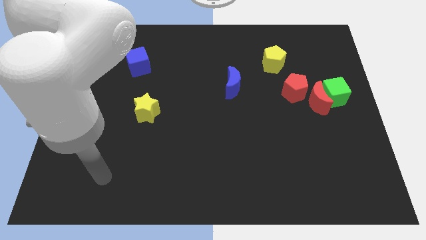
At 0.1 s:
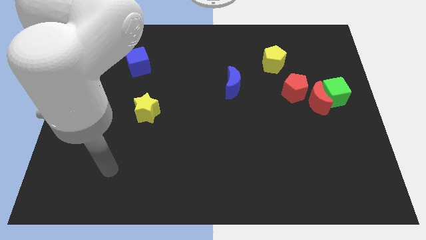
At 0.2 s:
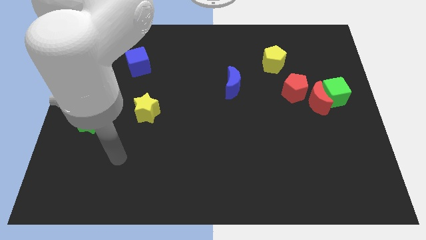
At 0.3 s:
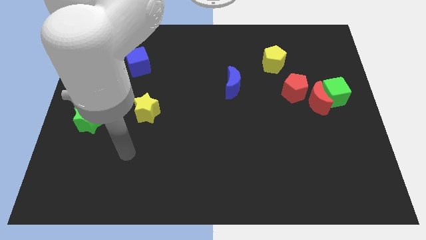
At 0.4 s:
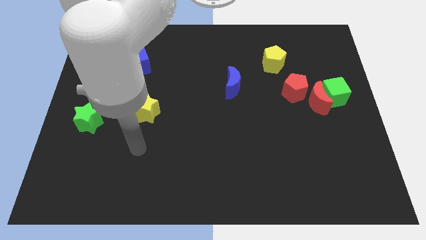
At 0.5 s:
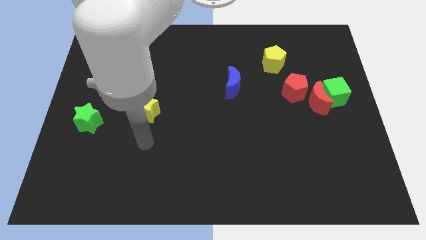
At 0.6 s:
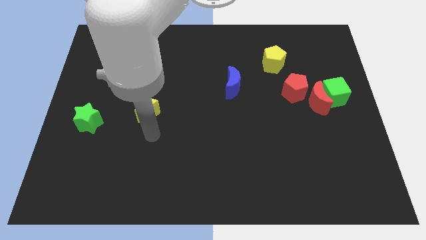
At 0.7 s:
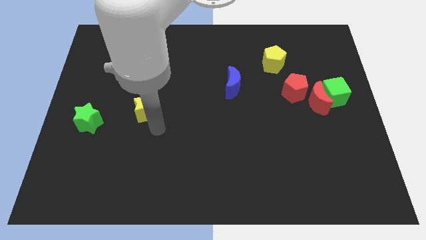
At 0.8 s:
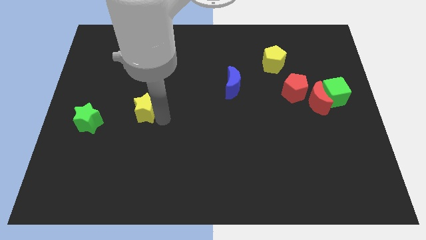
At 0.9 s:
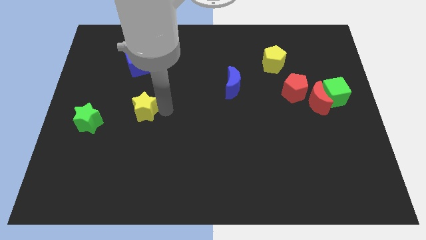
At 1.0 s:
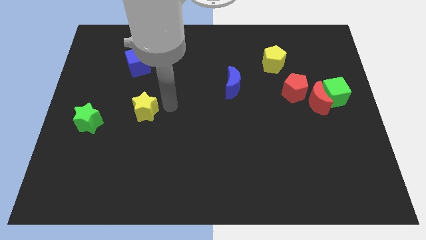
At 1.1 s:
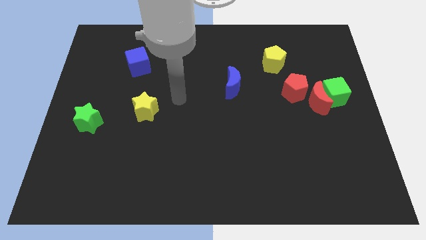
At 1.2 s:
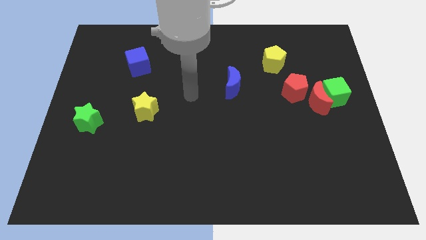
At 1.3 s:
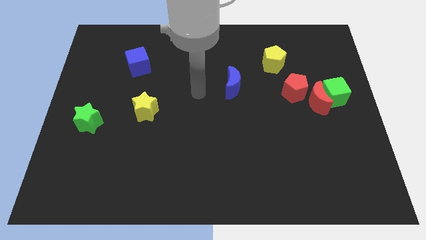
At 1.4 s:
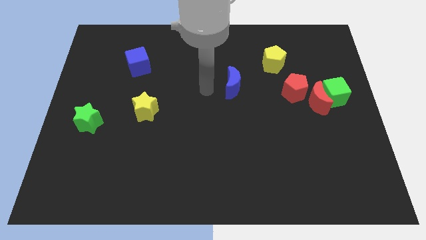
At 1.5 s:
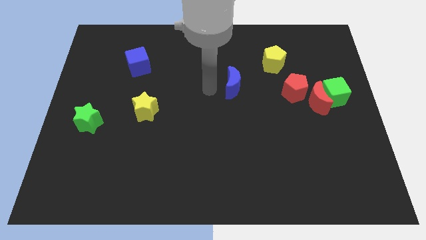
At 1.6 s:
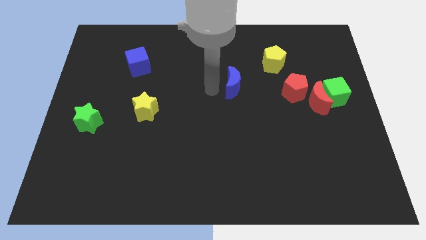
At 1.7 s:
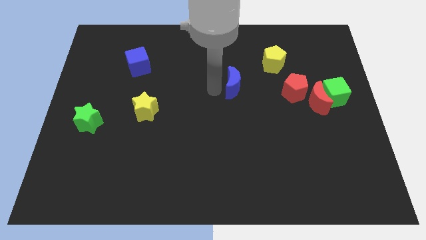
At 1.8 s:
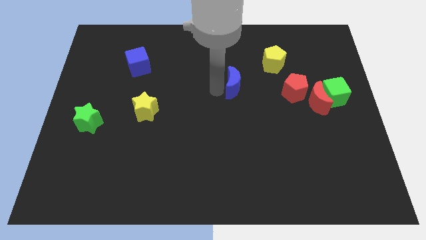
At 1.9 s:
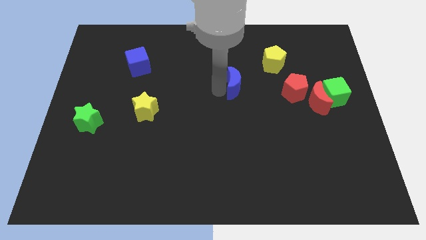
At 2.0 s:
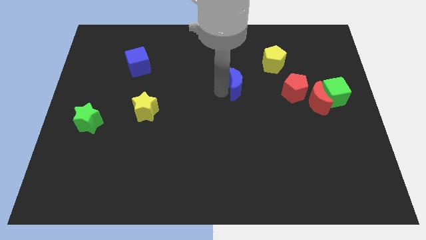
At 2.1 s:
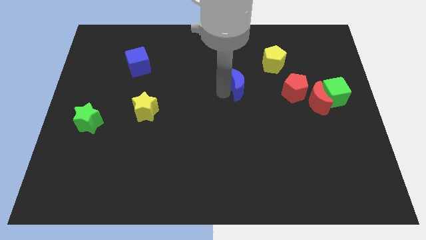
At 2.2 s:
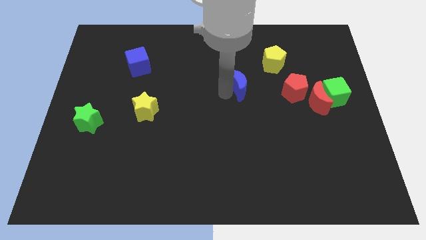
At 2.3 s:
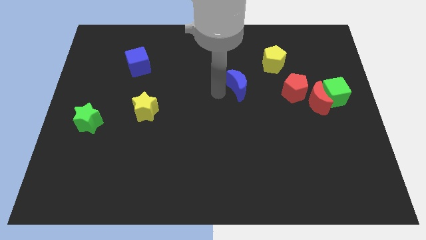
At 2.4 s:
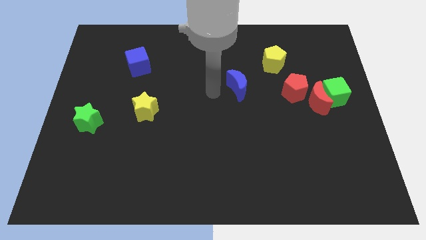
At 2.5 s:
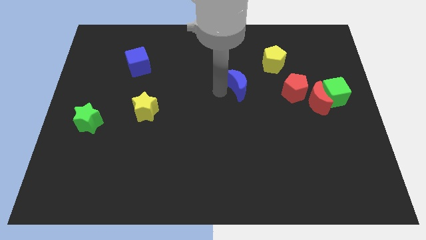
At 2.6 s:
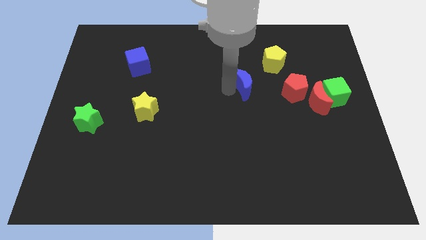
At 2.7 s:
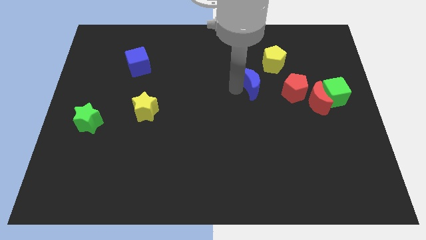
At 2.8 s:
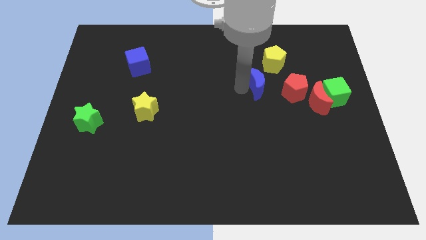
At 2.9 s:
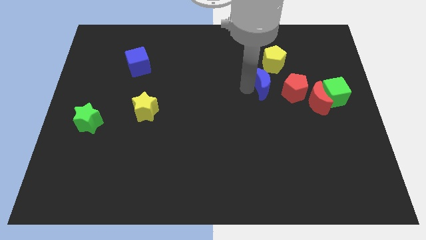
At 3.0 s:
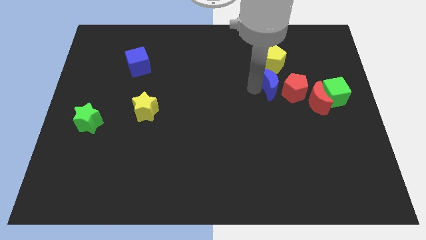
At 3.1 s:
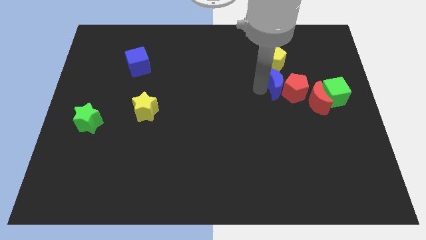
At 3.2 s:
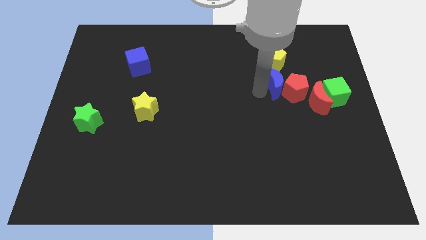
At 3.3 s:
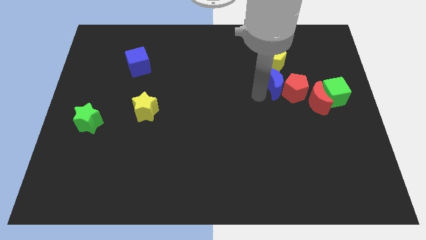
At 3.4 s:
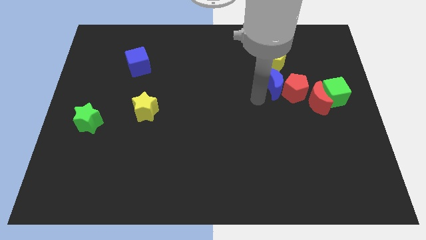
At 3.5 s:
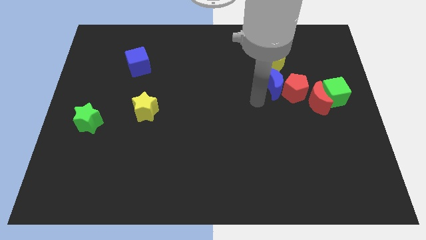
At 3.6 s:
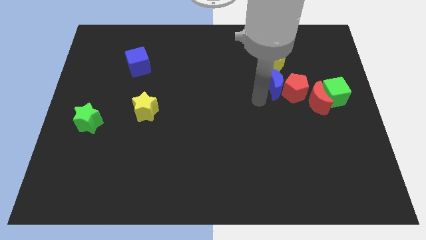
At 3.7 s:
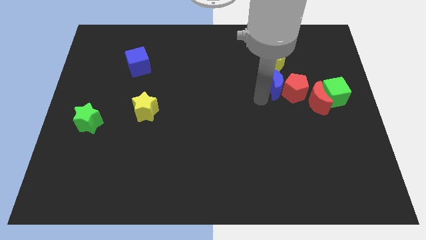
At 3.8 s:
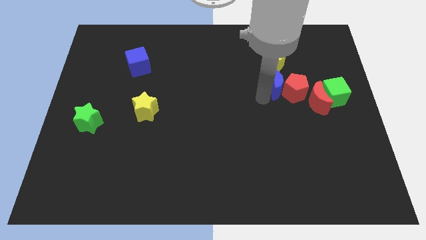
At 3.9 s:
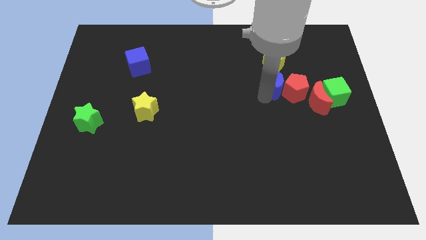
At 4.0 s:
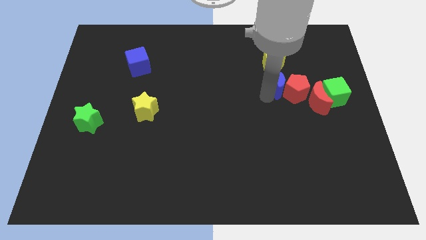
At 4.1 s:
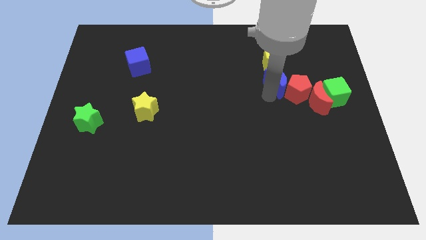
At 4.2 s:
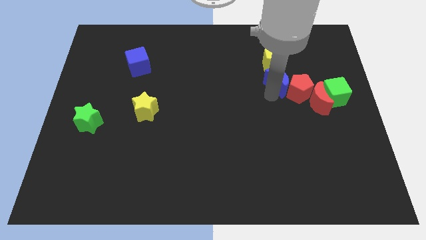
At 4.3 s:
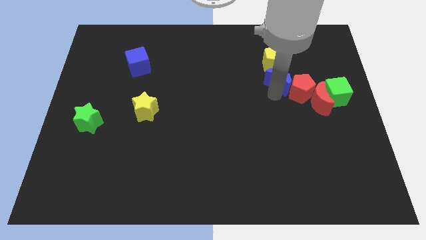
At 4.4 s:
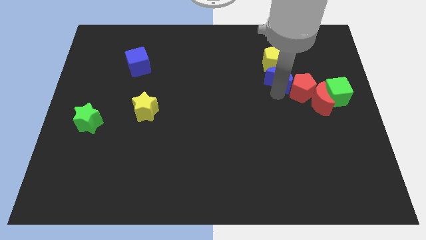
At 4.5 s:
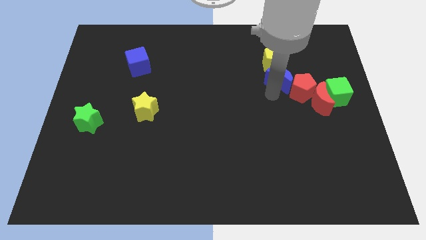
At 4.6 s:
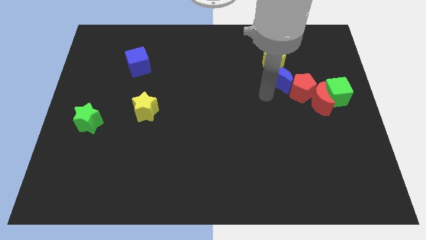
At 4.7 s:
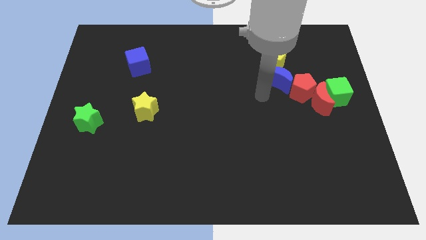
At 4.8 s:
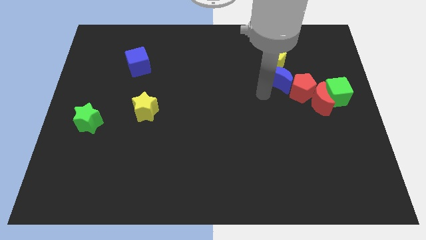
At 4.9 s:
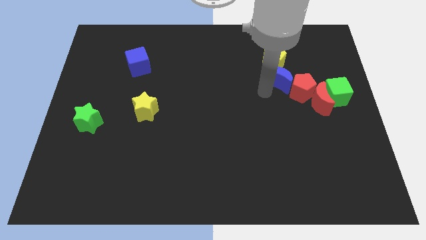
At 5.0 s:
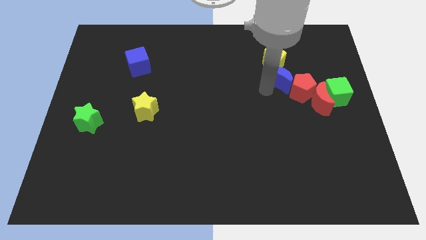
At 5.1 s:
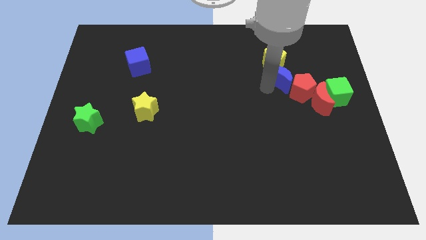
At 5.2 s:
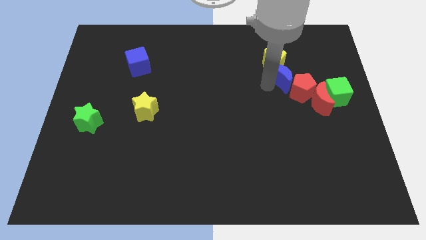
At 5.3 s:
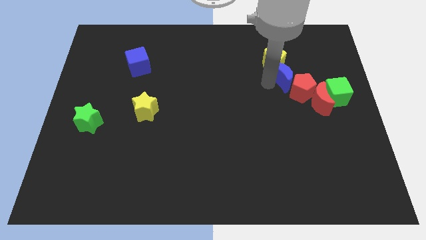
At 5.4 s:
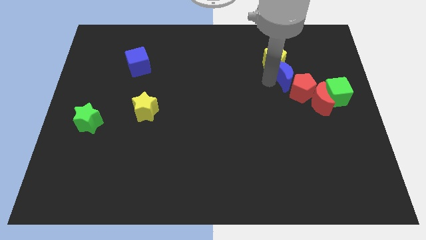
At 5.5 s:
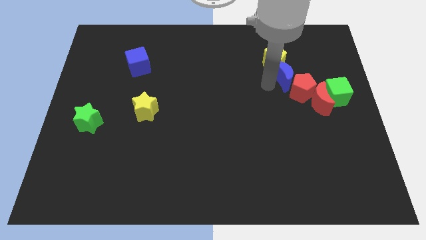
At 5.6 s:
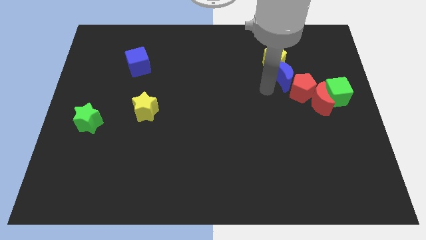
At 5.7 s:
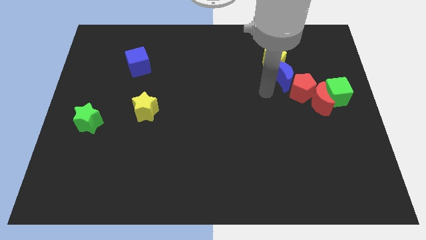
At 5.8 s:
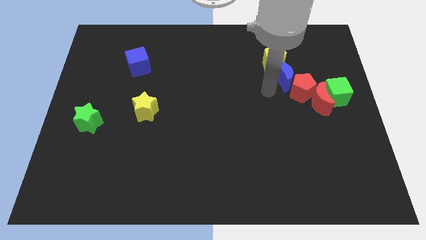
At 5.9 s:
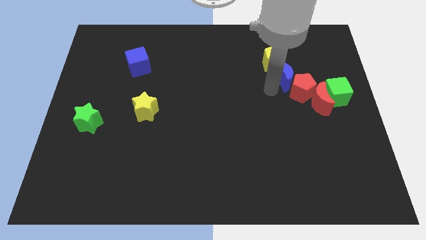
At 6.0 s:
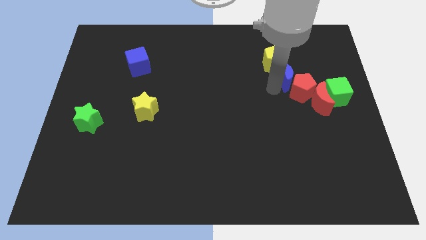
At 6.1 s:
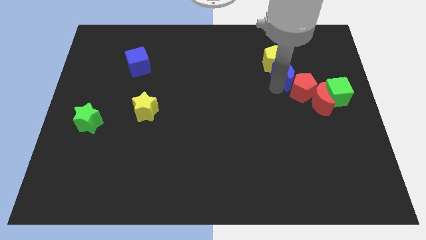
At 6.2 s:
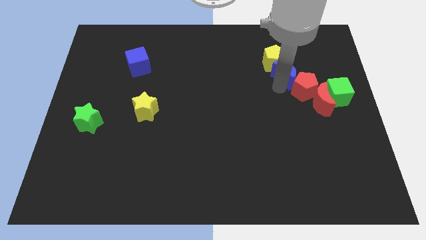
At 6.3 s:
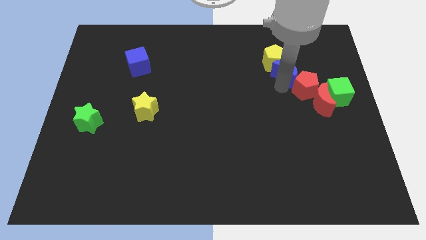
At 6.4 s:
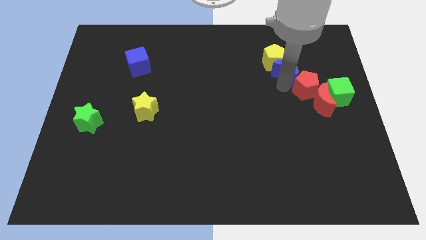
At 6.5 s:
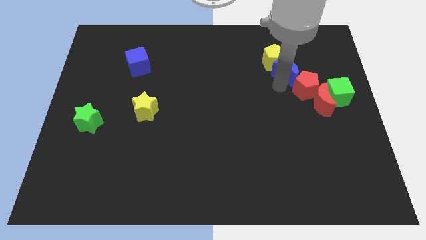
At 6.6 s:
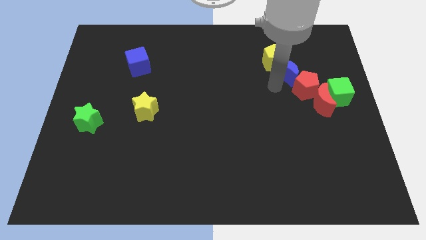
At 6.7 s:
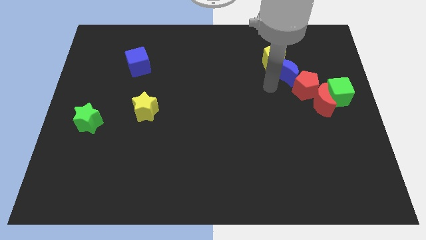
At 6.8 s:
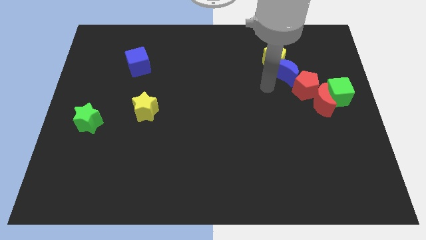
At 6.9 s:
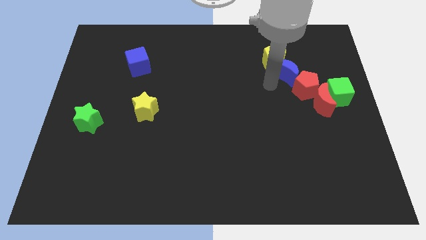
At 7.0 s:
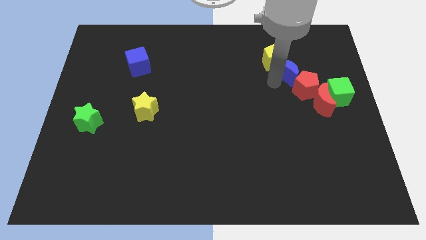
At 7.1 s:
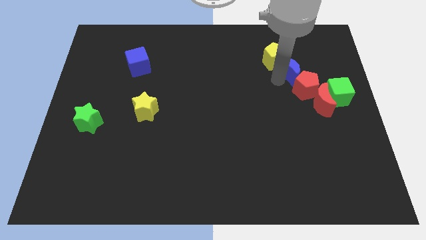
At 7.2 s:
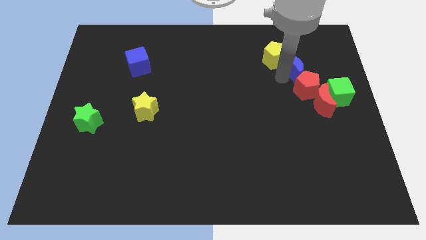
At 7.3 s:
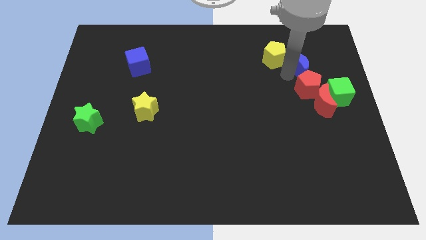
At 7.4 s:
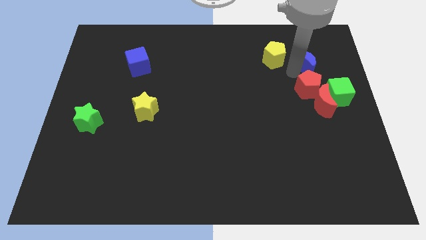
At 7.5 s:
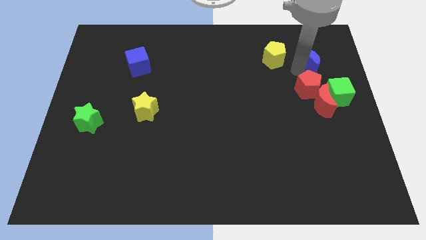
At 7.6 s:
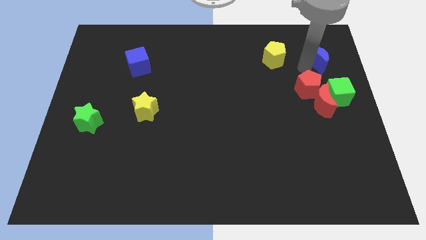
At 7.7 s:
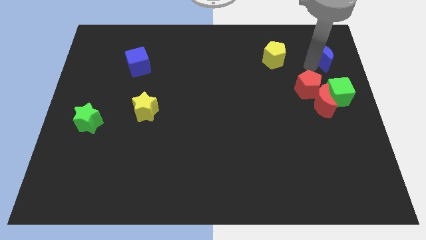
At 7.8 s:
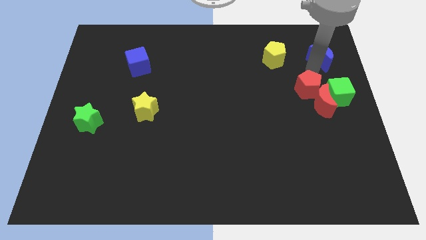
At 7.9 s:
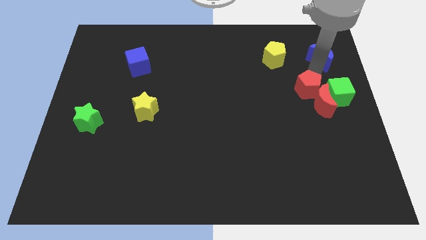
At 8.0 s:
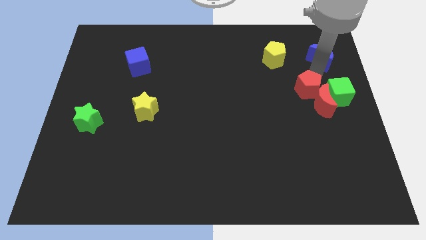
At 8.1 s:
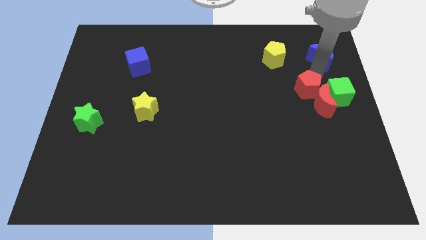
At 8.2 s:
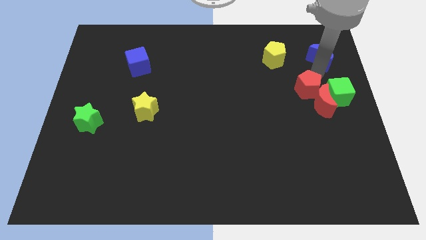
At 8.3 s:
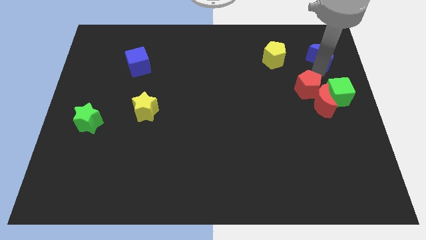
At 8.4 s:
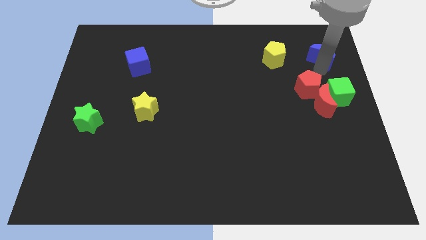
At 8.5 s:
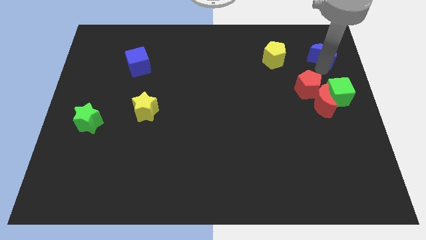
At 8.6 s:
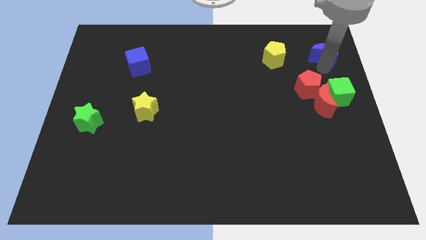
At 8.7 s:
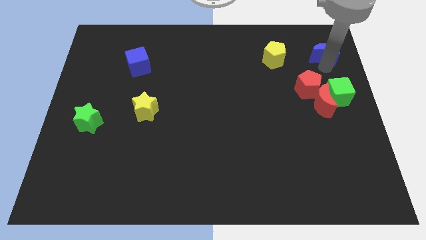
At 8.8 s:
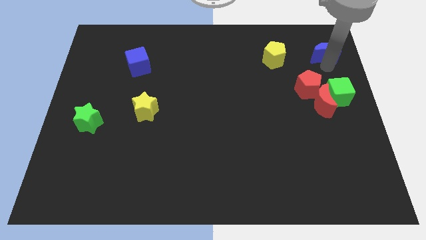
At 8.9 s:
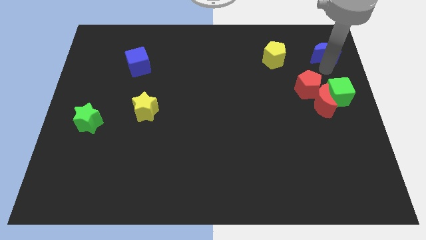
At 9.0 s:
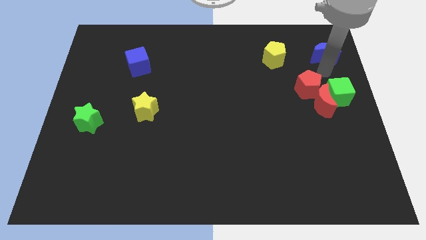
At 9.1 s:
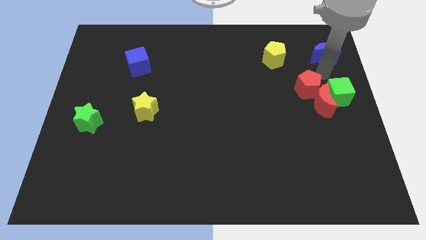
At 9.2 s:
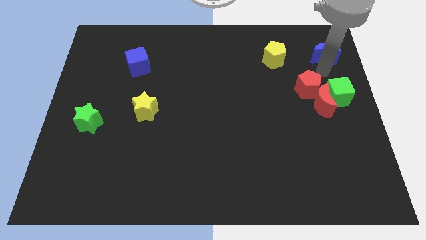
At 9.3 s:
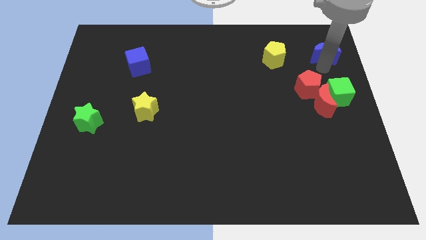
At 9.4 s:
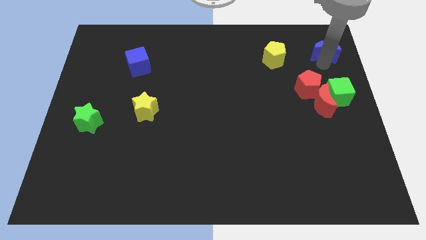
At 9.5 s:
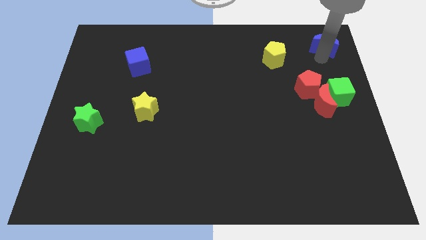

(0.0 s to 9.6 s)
push the blue moon to the top right
